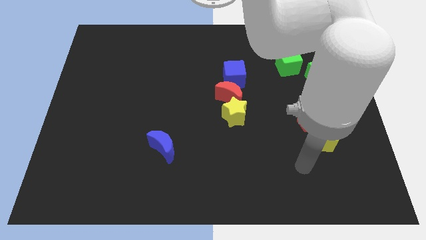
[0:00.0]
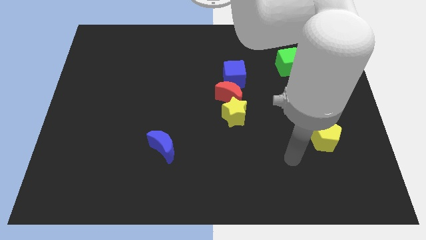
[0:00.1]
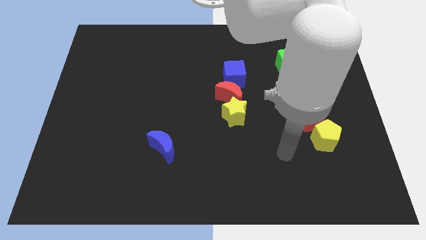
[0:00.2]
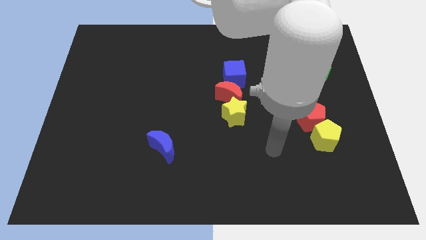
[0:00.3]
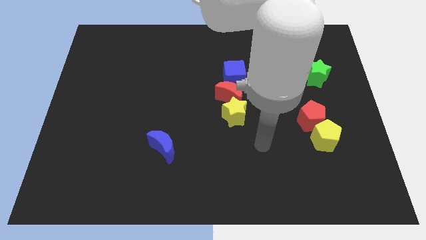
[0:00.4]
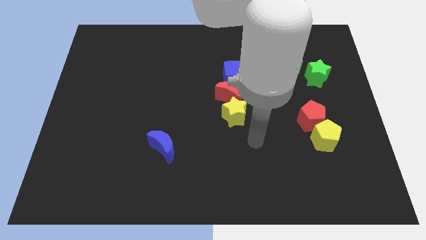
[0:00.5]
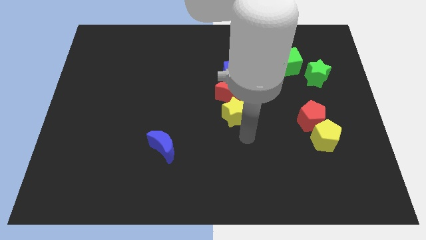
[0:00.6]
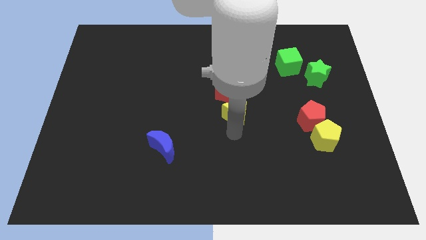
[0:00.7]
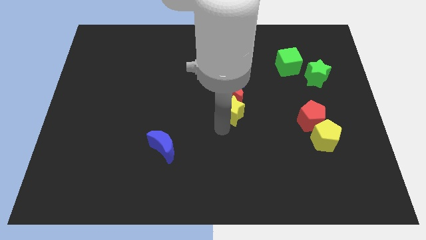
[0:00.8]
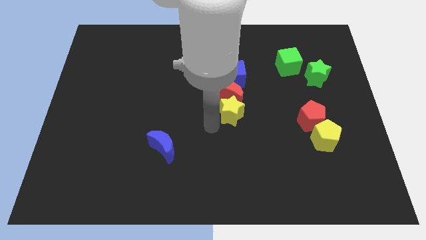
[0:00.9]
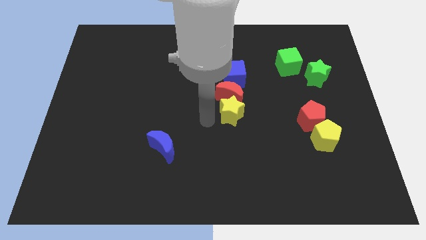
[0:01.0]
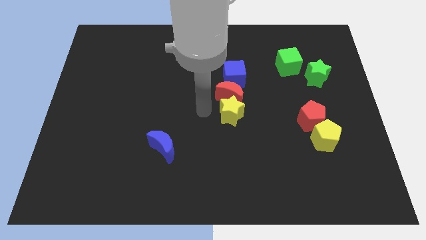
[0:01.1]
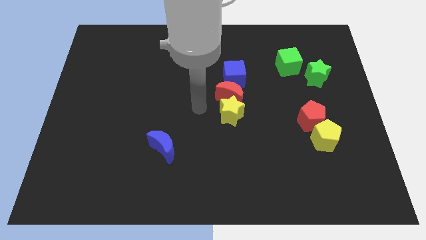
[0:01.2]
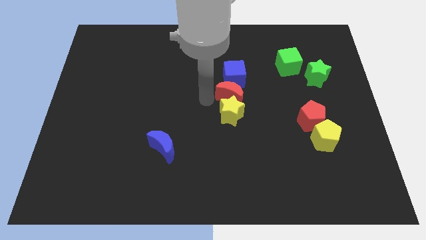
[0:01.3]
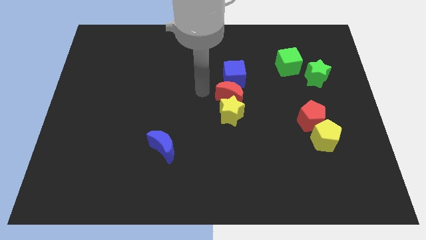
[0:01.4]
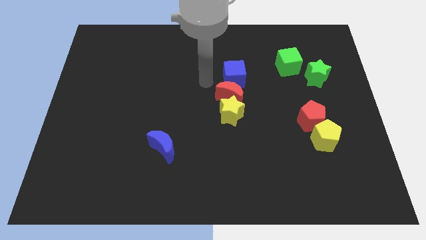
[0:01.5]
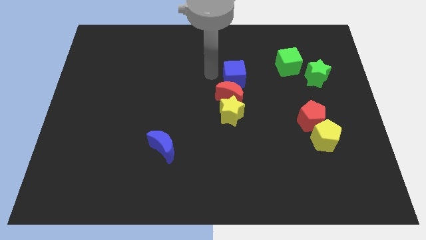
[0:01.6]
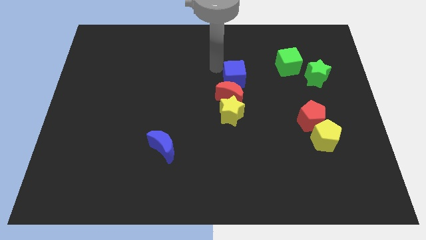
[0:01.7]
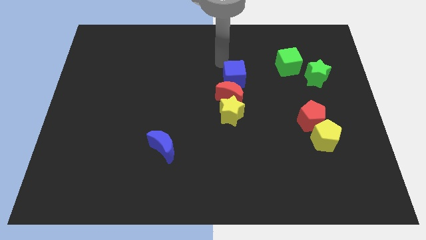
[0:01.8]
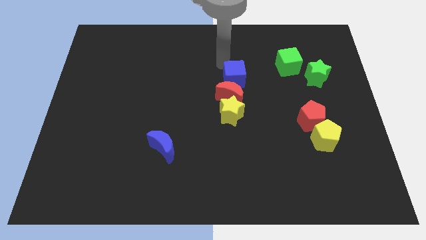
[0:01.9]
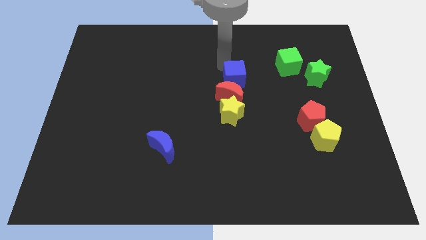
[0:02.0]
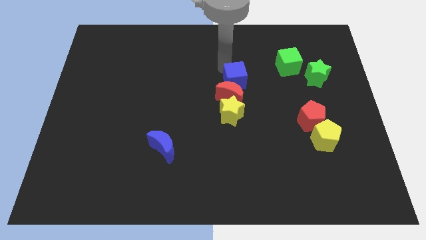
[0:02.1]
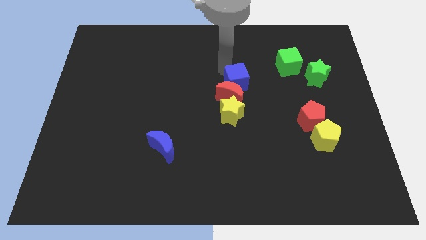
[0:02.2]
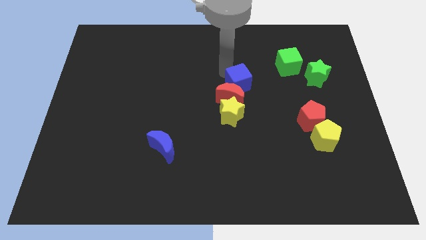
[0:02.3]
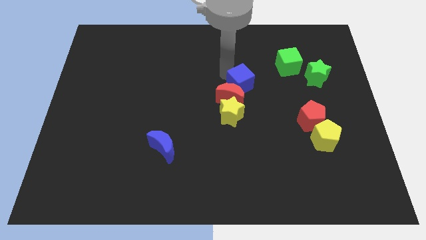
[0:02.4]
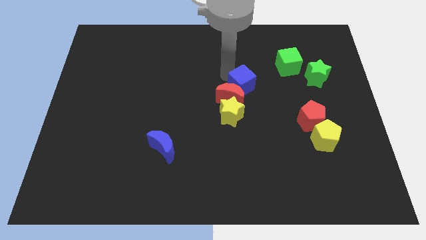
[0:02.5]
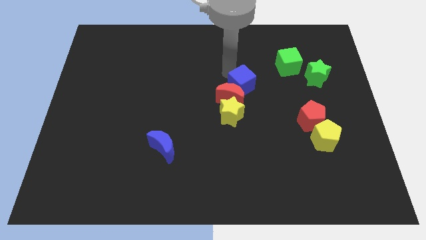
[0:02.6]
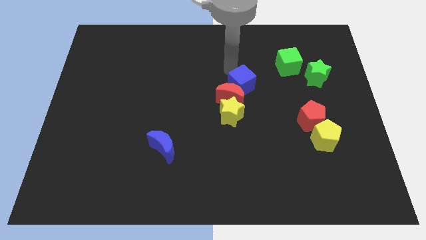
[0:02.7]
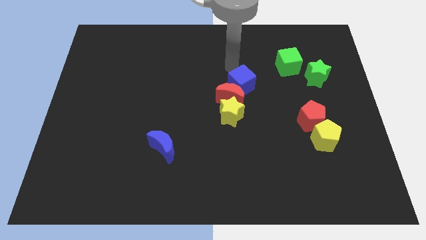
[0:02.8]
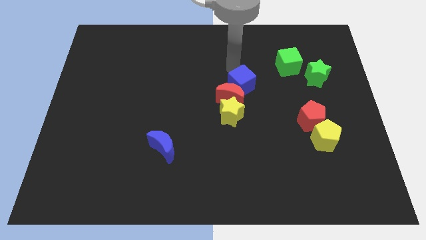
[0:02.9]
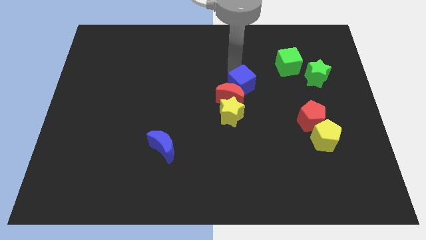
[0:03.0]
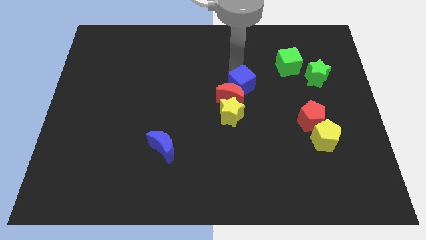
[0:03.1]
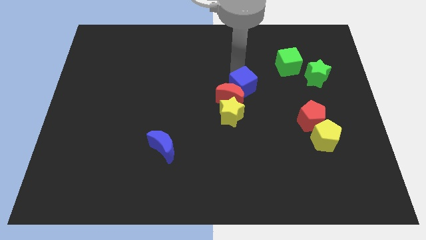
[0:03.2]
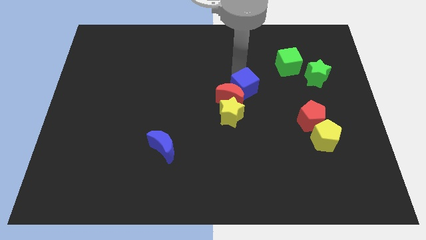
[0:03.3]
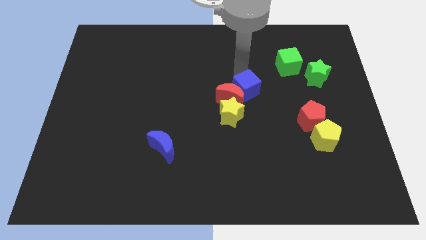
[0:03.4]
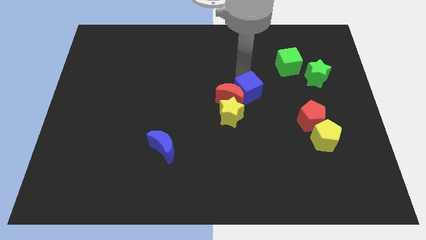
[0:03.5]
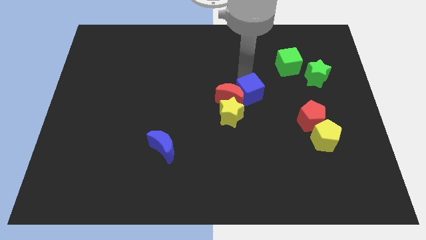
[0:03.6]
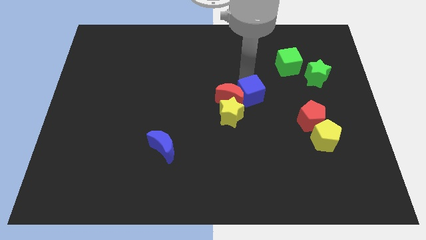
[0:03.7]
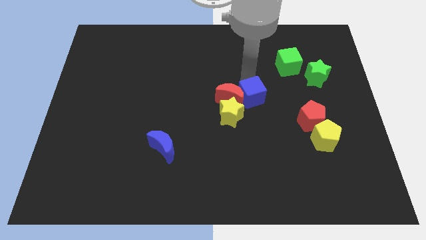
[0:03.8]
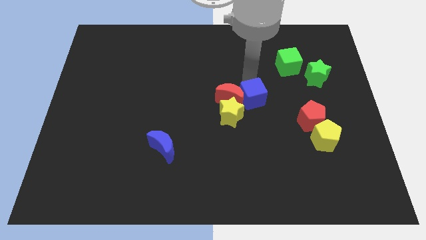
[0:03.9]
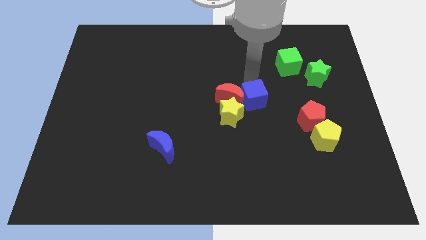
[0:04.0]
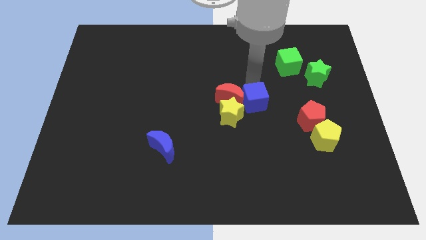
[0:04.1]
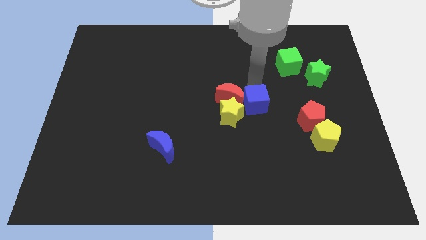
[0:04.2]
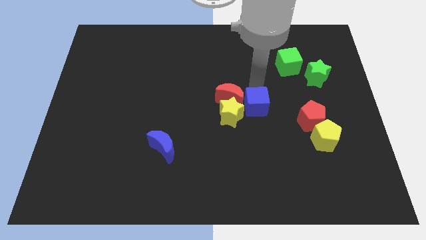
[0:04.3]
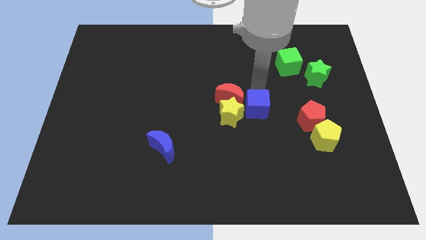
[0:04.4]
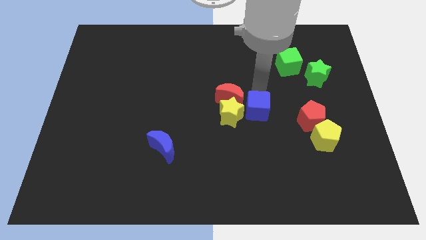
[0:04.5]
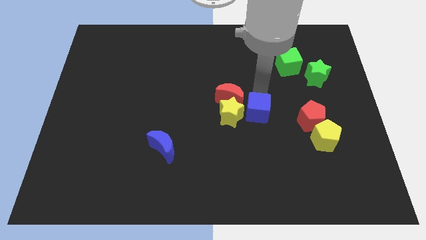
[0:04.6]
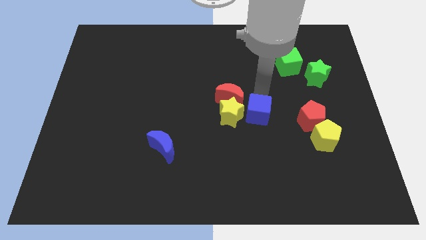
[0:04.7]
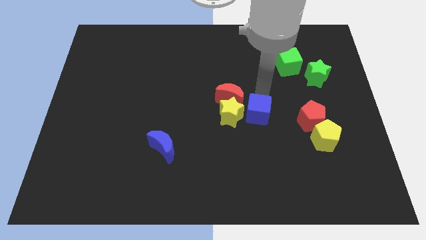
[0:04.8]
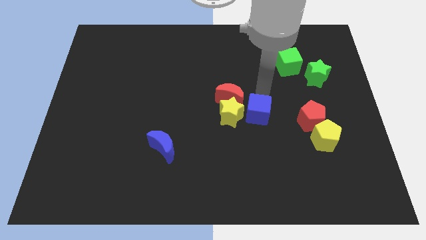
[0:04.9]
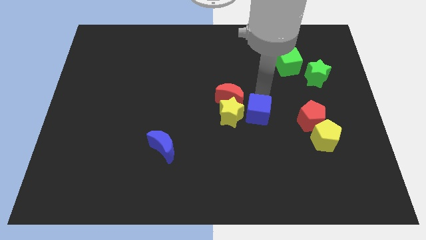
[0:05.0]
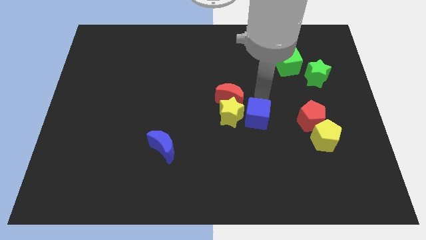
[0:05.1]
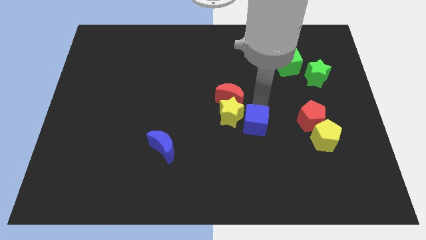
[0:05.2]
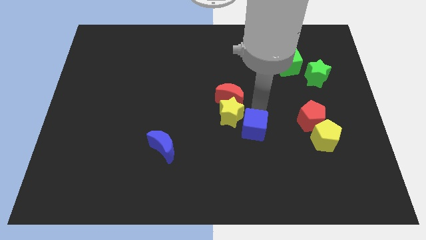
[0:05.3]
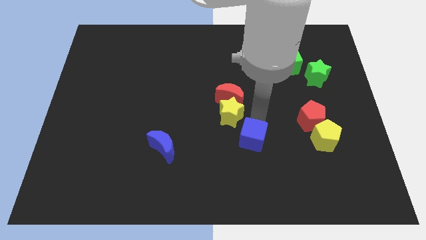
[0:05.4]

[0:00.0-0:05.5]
put the blue cube below the yellow star

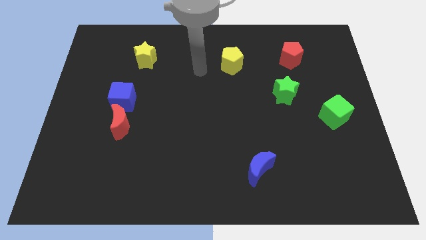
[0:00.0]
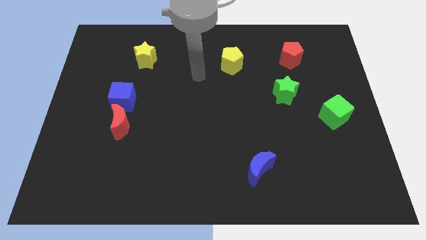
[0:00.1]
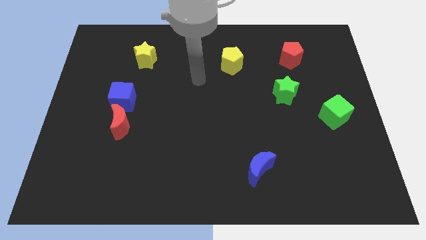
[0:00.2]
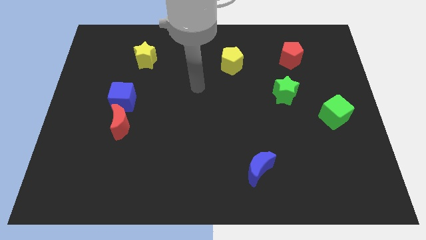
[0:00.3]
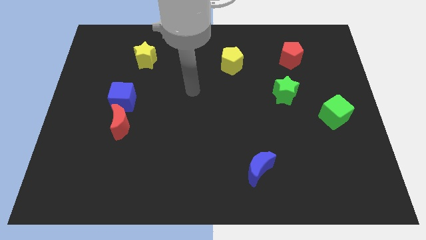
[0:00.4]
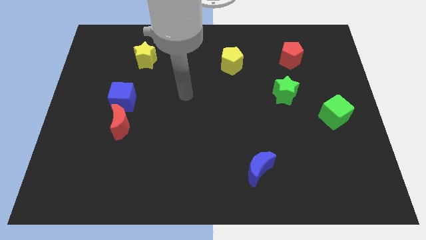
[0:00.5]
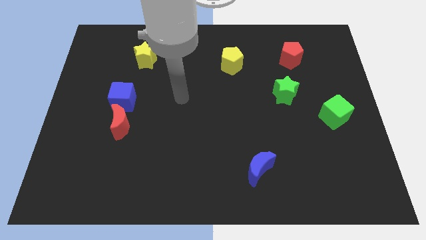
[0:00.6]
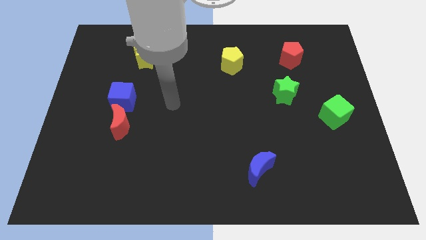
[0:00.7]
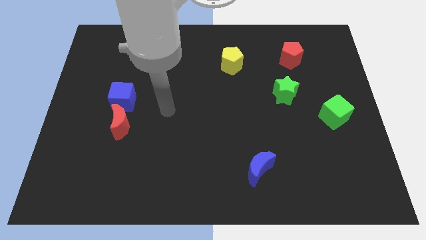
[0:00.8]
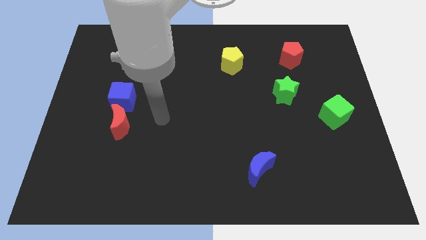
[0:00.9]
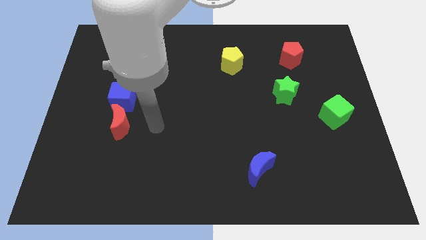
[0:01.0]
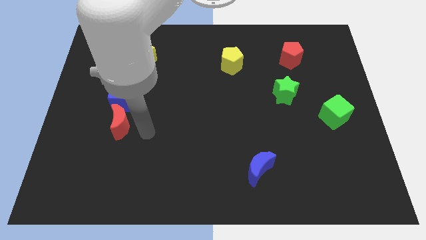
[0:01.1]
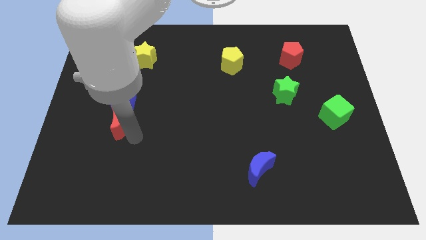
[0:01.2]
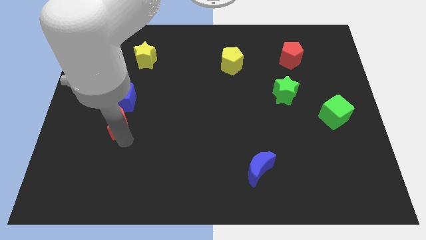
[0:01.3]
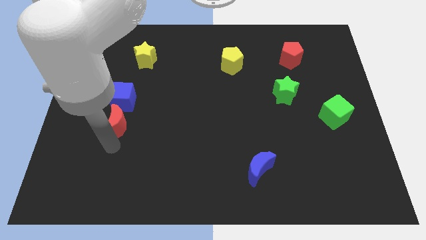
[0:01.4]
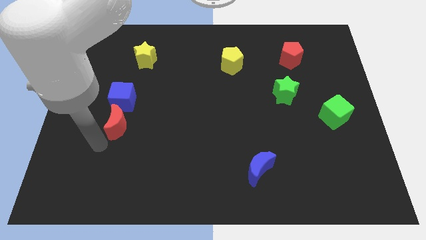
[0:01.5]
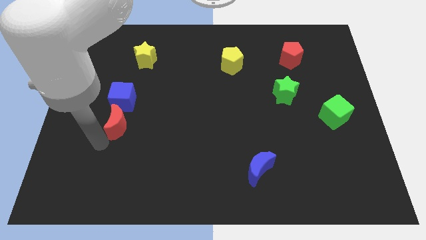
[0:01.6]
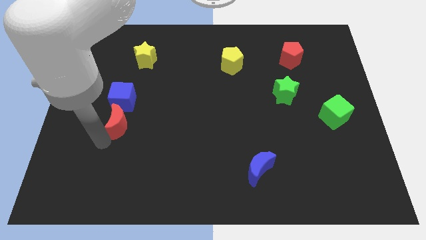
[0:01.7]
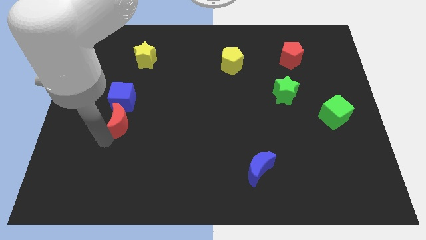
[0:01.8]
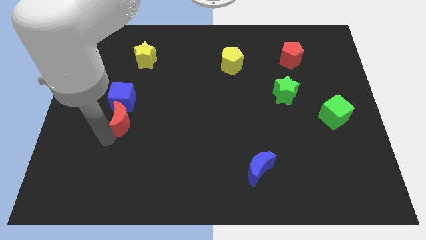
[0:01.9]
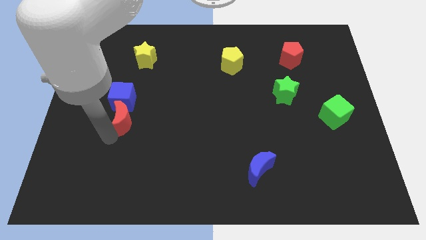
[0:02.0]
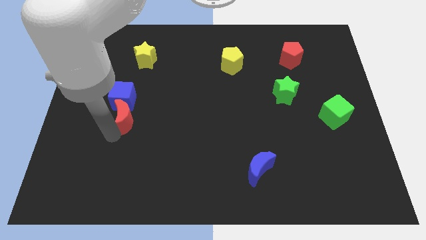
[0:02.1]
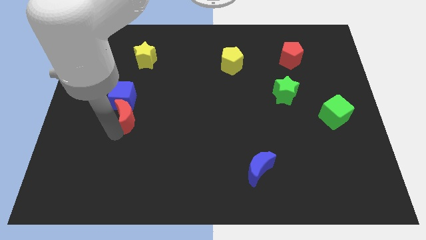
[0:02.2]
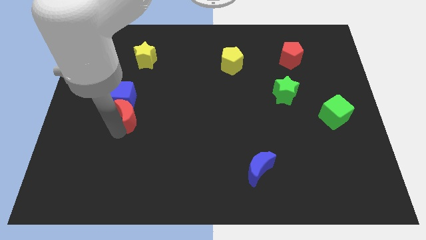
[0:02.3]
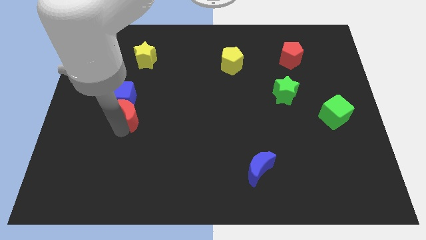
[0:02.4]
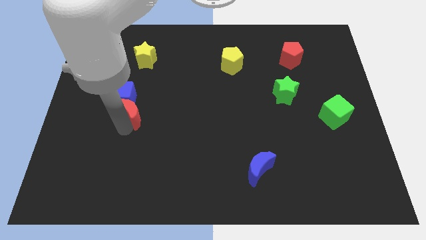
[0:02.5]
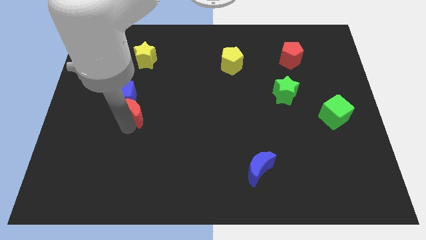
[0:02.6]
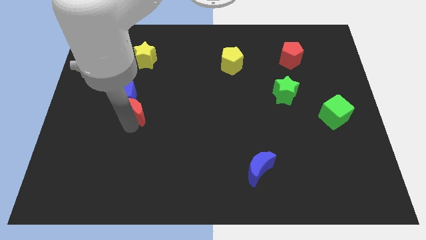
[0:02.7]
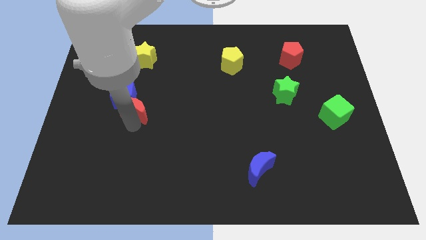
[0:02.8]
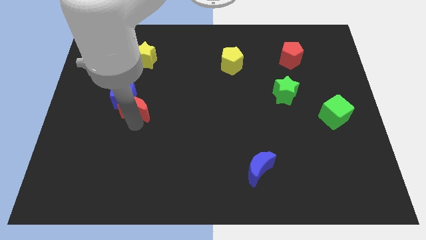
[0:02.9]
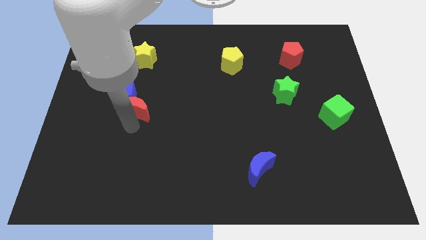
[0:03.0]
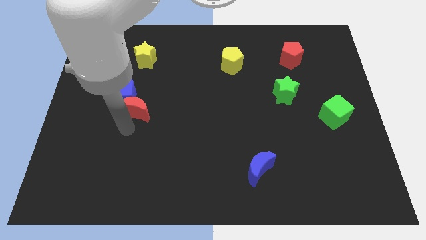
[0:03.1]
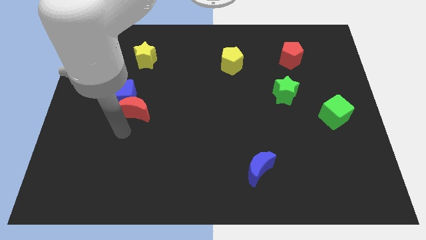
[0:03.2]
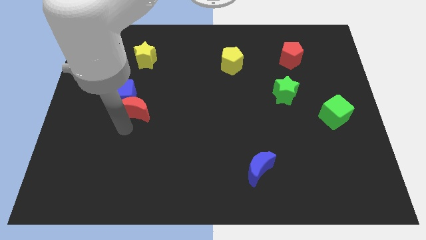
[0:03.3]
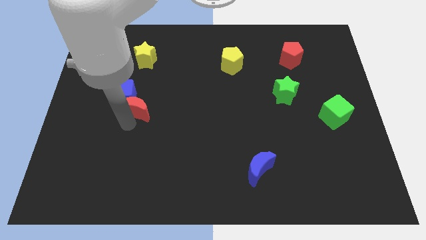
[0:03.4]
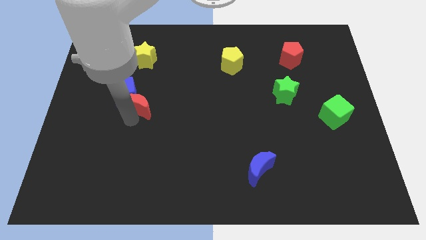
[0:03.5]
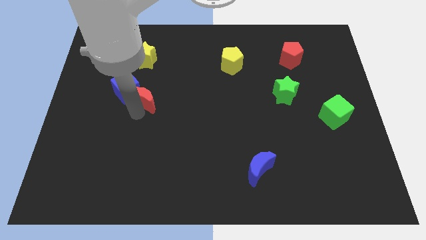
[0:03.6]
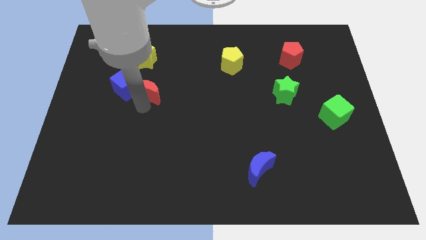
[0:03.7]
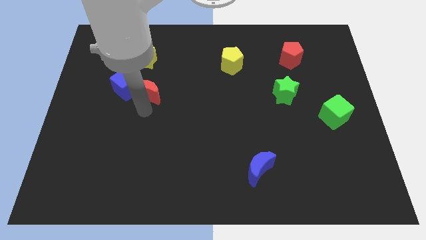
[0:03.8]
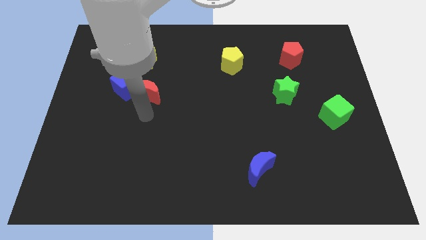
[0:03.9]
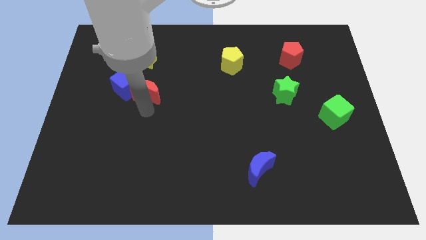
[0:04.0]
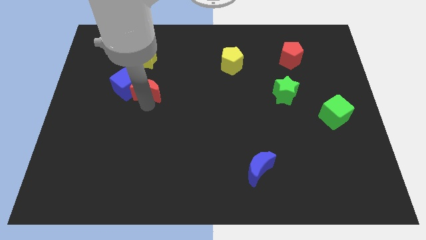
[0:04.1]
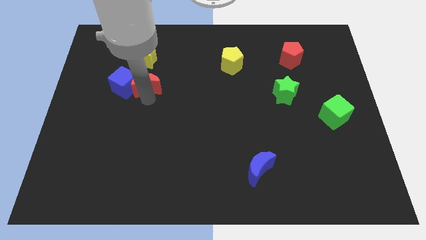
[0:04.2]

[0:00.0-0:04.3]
slide the red moon to the top right side of the blue cube
